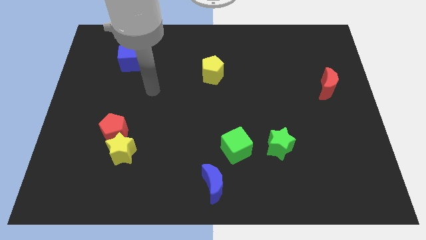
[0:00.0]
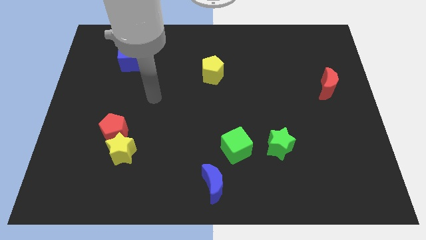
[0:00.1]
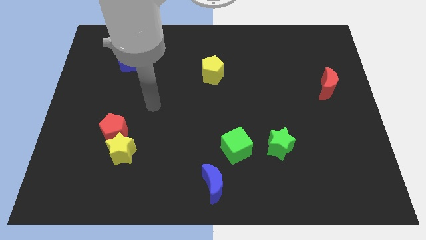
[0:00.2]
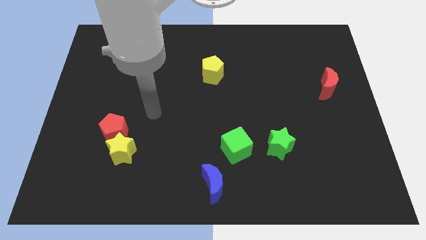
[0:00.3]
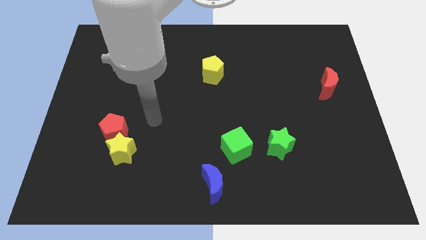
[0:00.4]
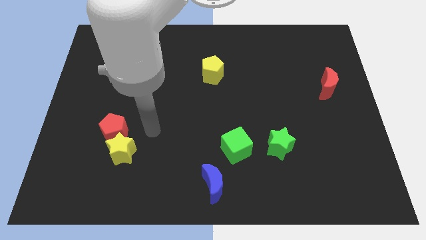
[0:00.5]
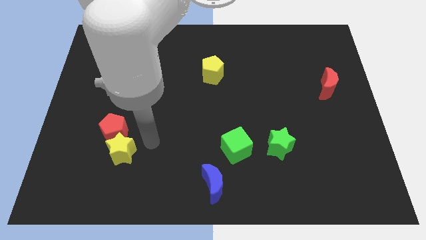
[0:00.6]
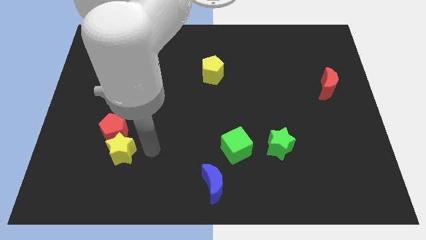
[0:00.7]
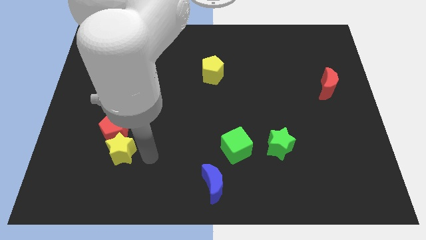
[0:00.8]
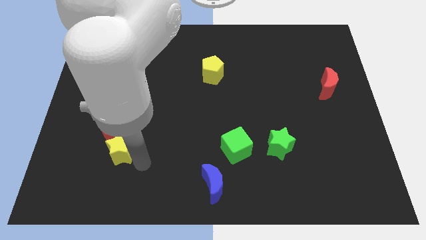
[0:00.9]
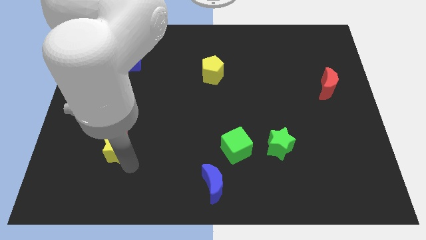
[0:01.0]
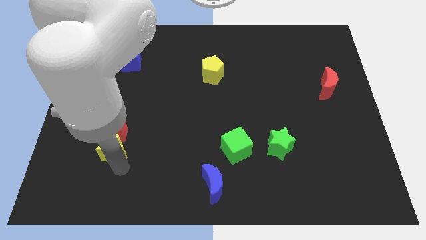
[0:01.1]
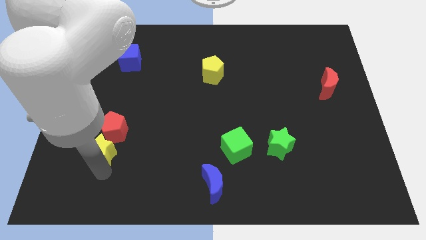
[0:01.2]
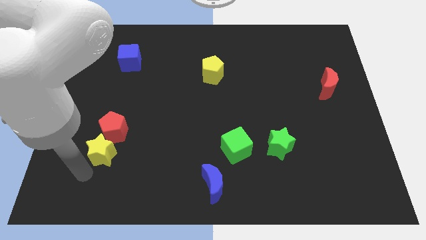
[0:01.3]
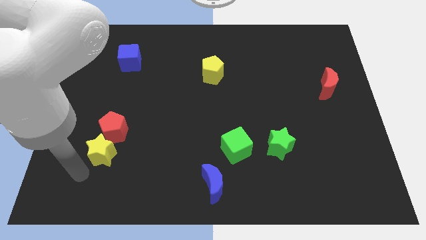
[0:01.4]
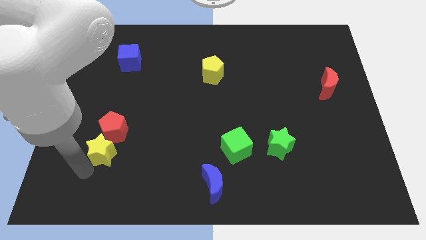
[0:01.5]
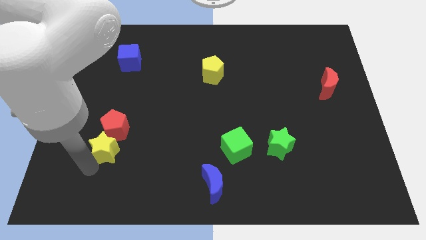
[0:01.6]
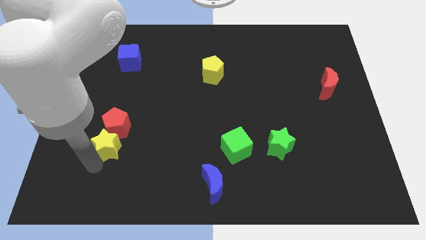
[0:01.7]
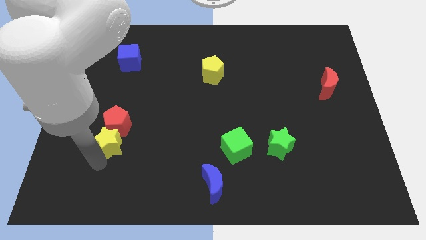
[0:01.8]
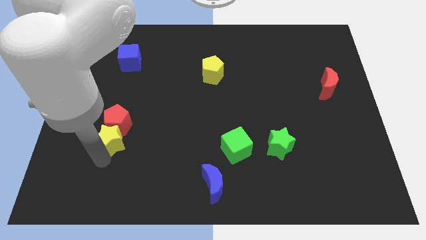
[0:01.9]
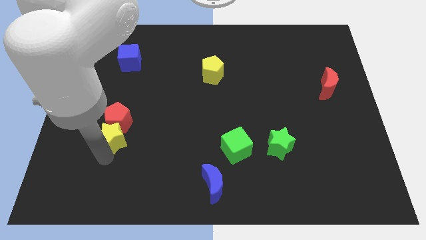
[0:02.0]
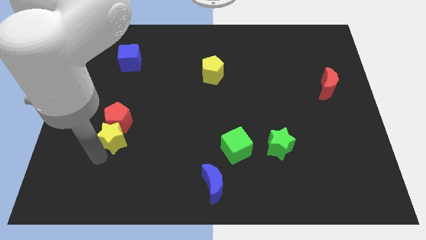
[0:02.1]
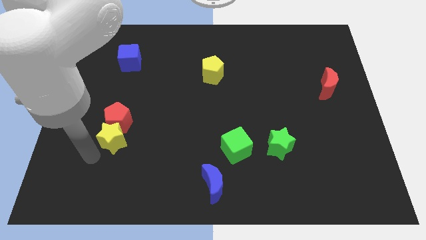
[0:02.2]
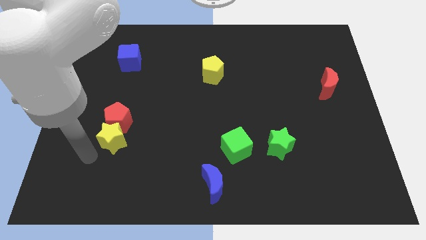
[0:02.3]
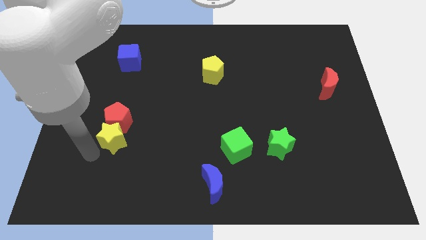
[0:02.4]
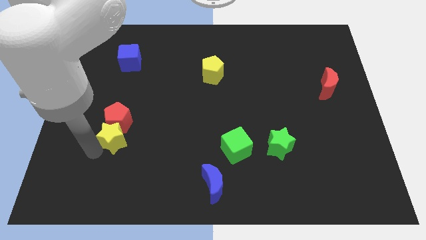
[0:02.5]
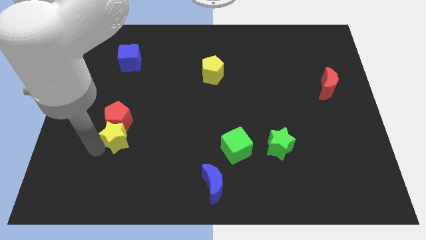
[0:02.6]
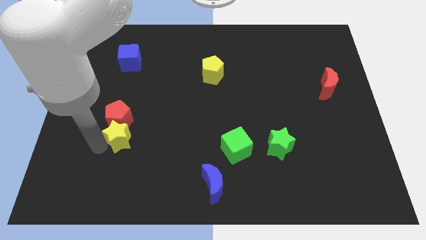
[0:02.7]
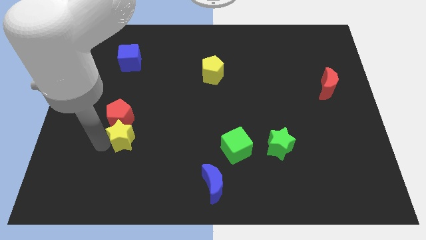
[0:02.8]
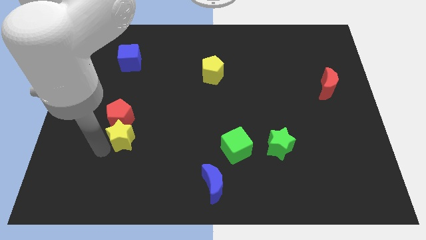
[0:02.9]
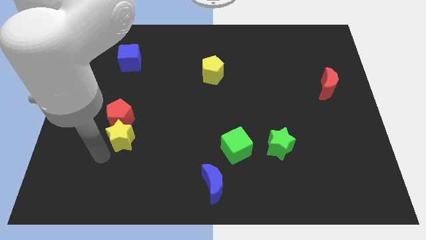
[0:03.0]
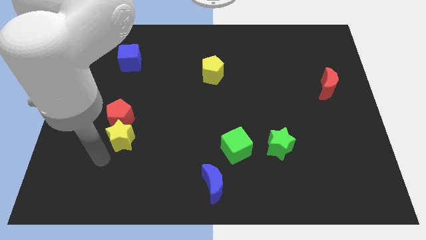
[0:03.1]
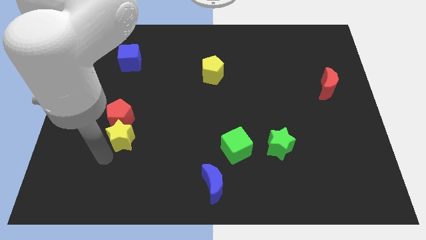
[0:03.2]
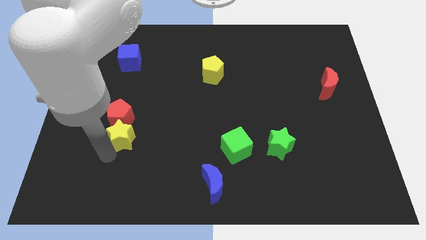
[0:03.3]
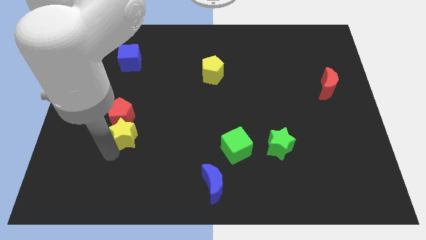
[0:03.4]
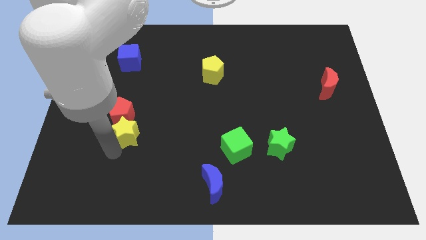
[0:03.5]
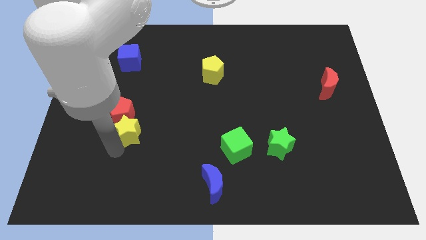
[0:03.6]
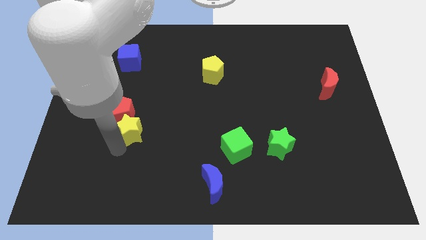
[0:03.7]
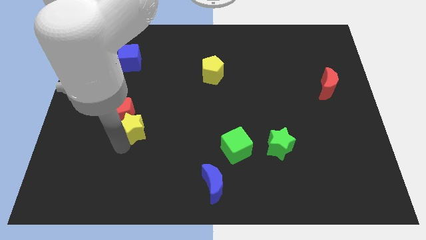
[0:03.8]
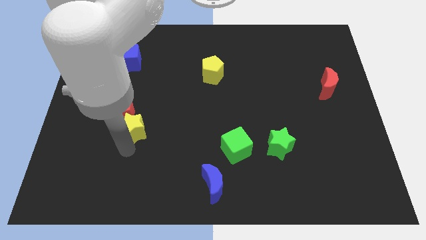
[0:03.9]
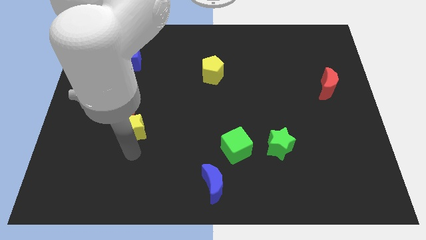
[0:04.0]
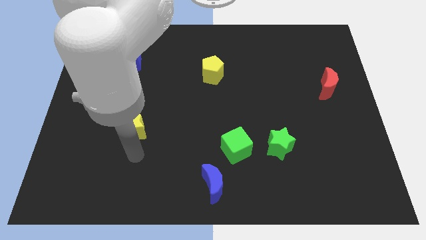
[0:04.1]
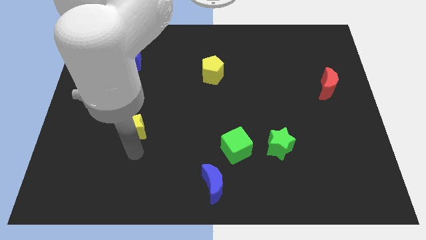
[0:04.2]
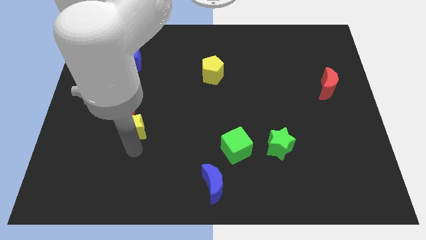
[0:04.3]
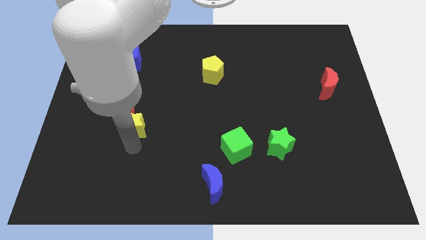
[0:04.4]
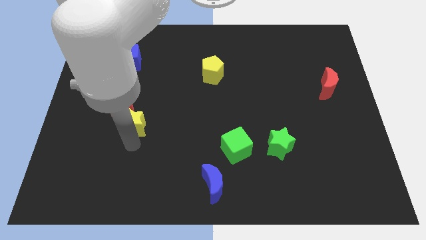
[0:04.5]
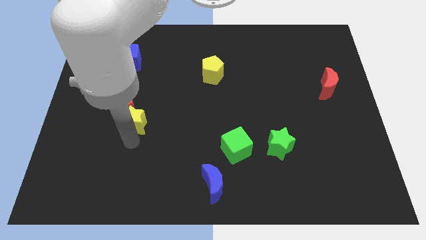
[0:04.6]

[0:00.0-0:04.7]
slightly push the yellow star up

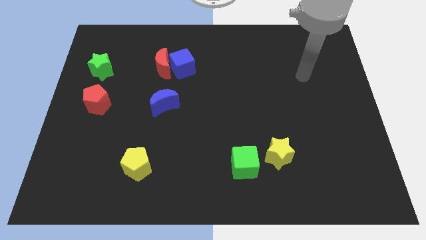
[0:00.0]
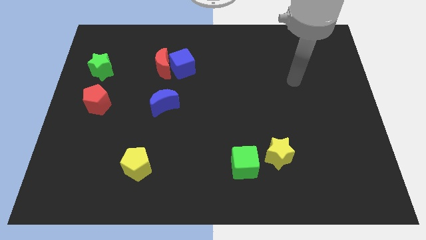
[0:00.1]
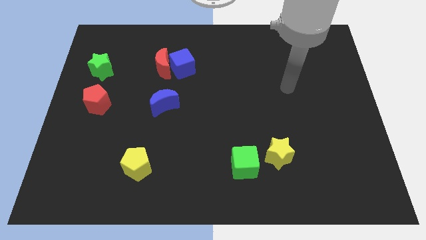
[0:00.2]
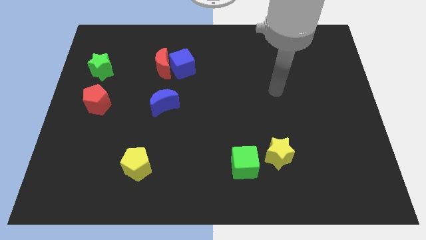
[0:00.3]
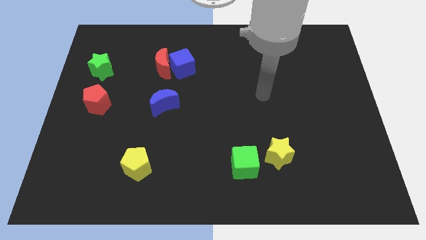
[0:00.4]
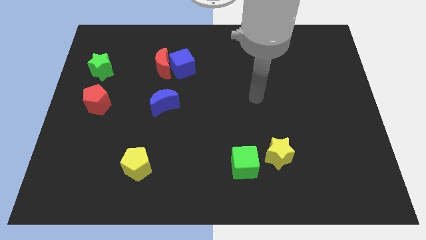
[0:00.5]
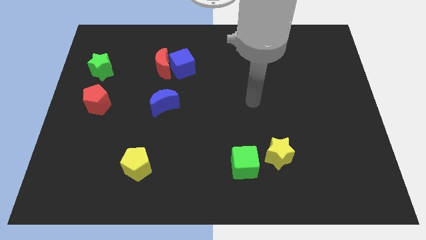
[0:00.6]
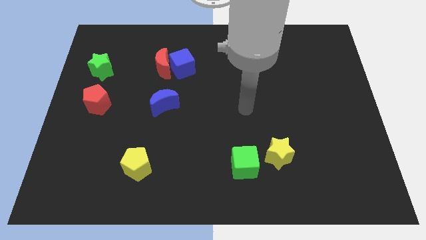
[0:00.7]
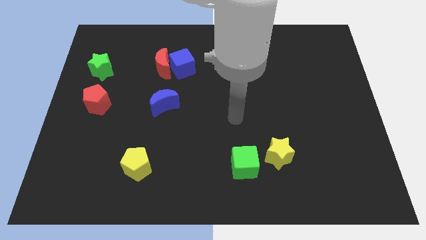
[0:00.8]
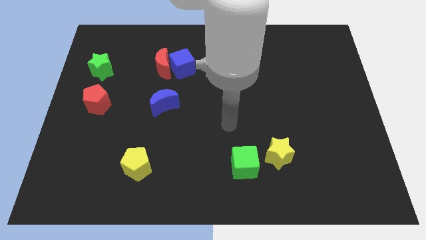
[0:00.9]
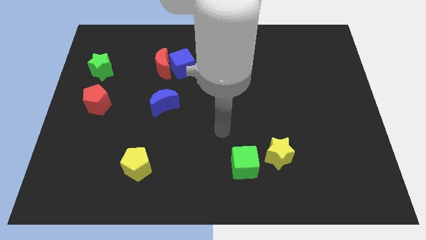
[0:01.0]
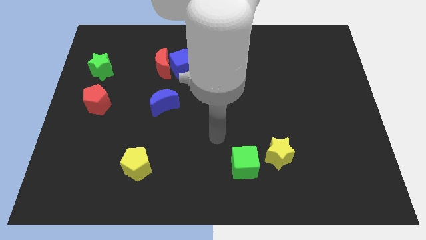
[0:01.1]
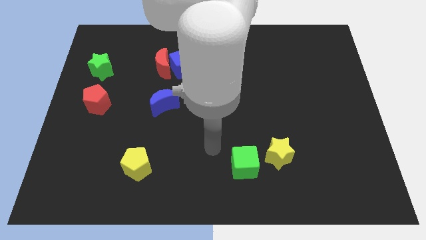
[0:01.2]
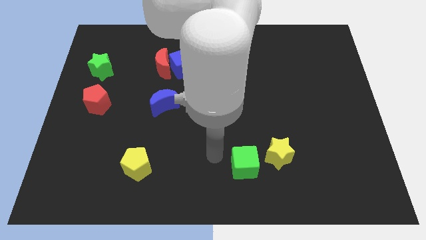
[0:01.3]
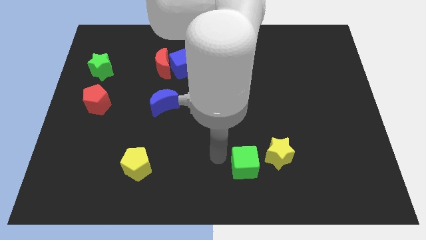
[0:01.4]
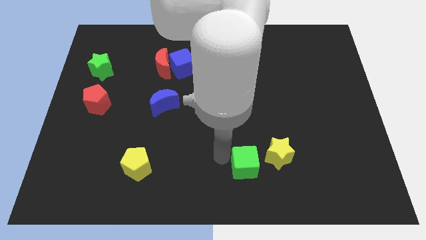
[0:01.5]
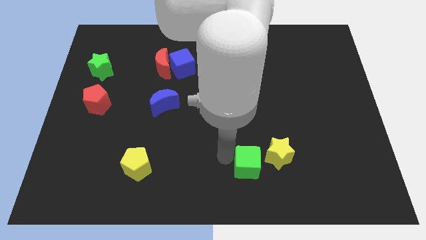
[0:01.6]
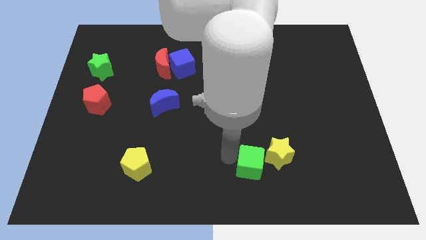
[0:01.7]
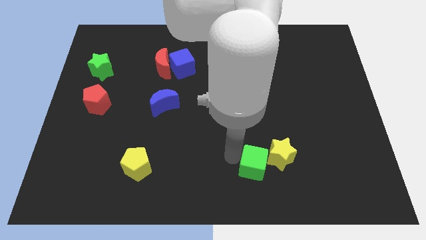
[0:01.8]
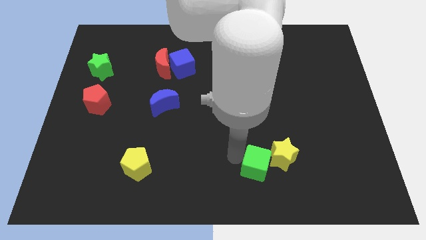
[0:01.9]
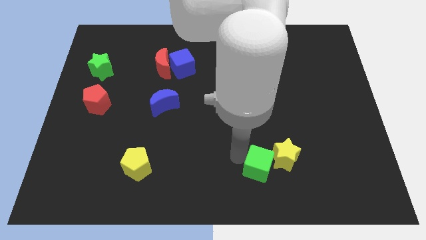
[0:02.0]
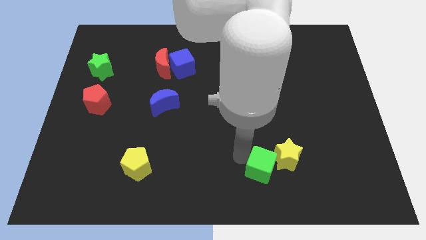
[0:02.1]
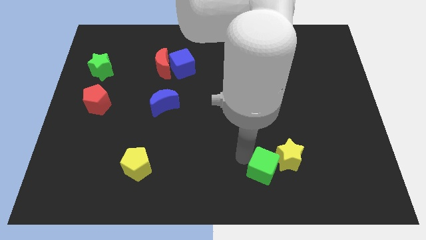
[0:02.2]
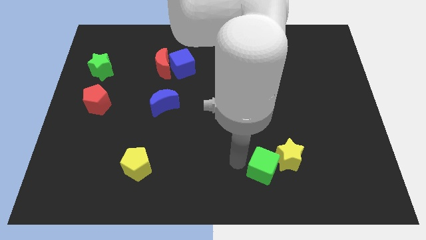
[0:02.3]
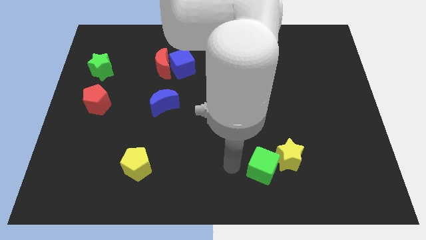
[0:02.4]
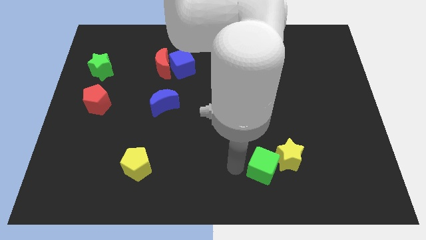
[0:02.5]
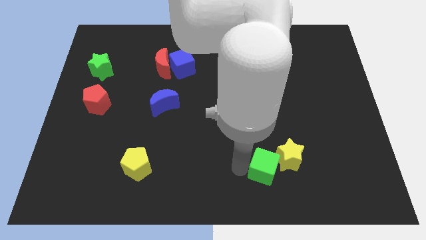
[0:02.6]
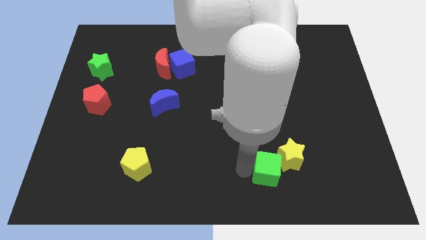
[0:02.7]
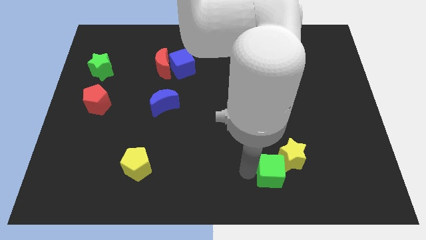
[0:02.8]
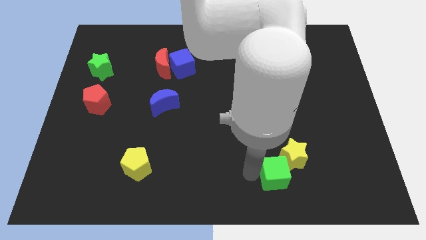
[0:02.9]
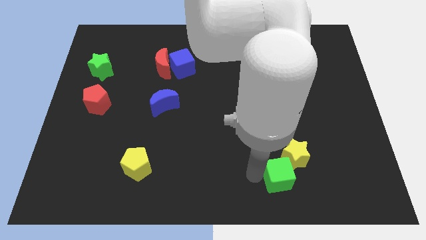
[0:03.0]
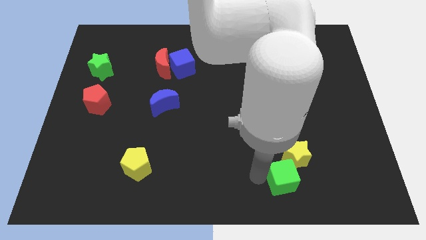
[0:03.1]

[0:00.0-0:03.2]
slide the green cube slightly to the right
